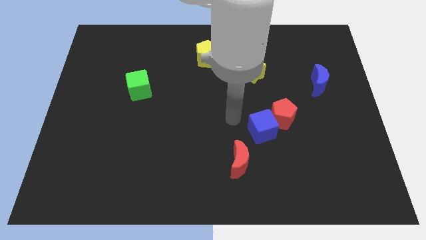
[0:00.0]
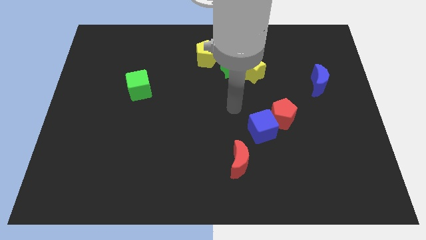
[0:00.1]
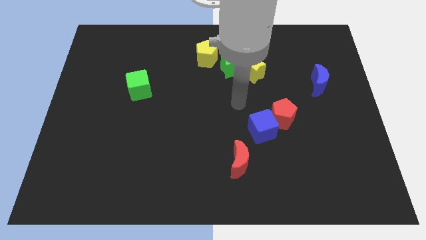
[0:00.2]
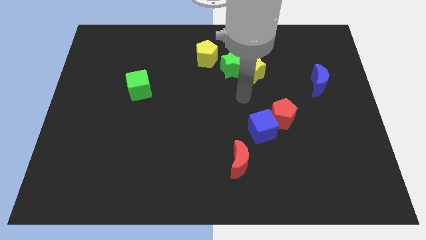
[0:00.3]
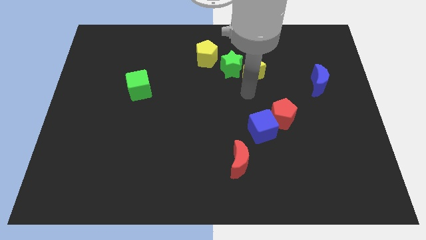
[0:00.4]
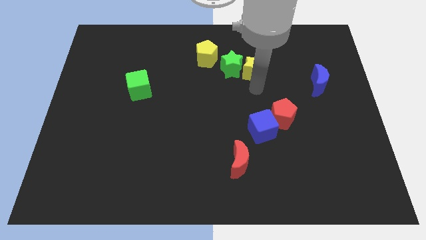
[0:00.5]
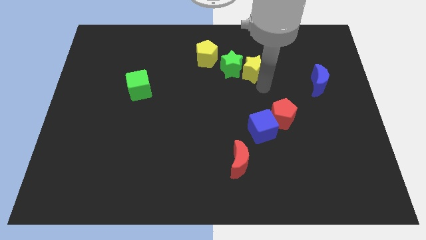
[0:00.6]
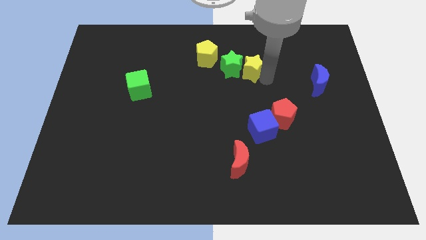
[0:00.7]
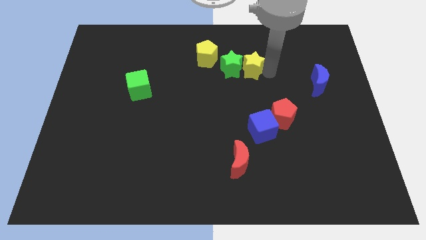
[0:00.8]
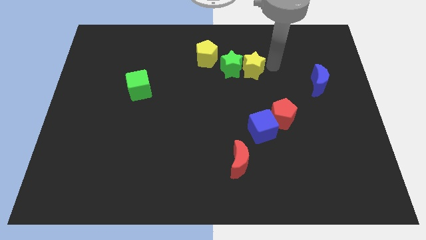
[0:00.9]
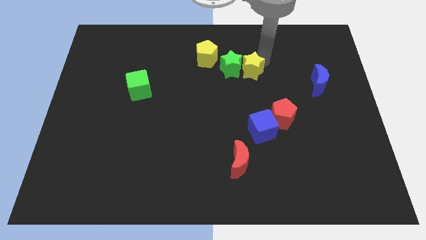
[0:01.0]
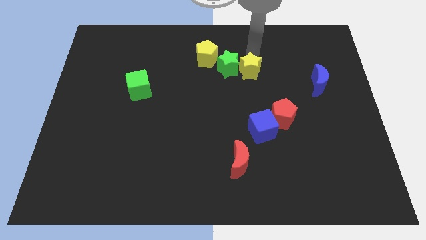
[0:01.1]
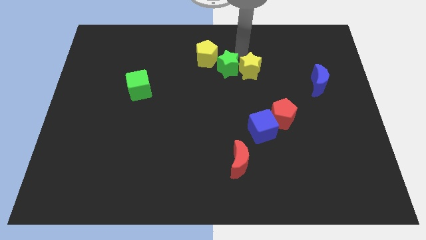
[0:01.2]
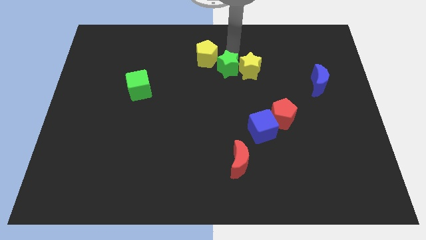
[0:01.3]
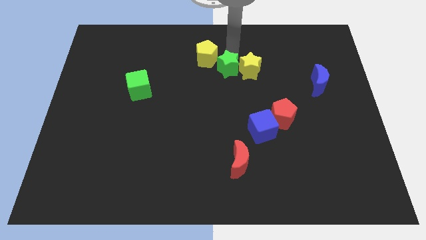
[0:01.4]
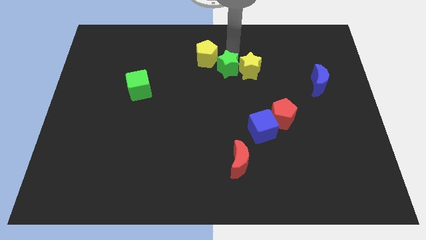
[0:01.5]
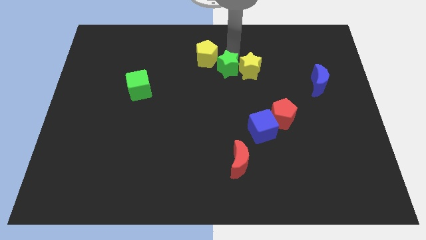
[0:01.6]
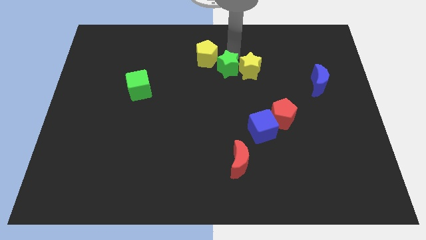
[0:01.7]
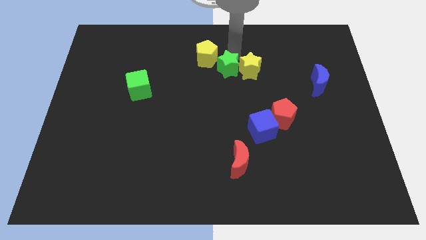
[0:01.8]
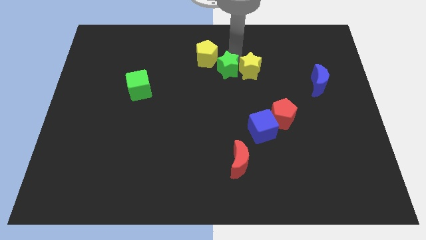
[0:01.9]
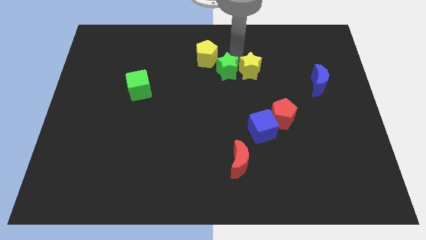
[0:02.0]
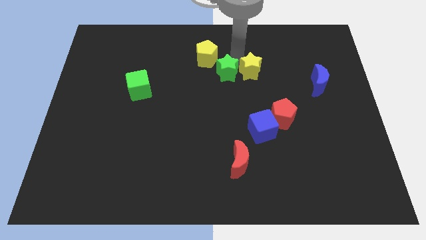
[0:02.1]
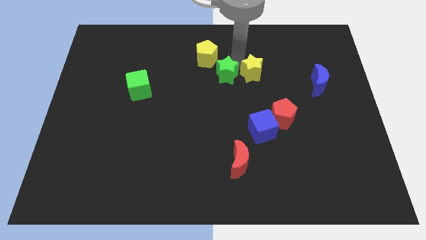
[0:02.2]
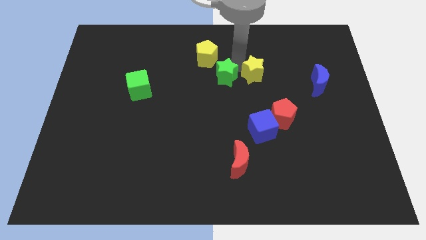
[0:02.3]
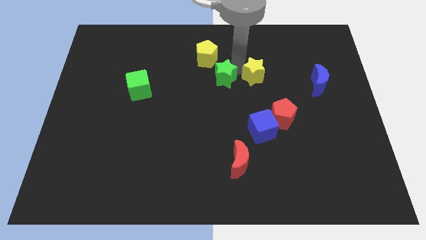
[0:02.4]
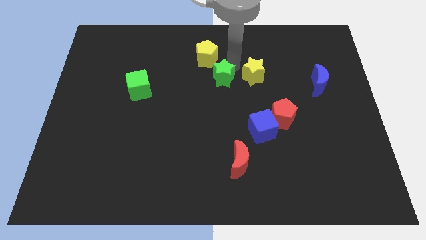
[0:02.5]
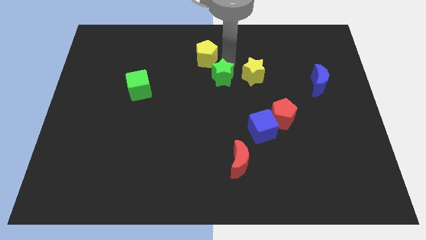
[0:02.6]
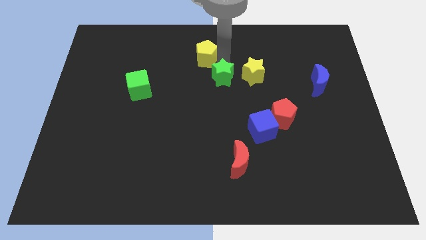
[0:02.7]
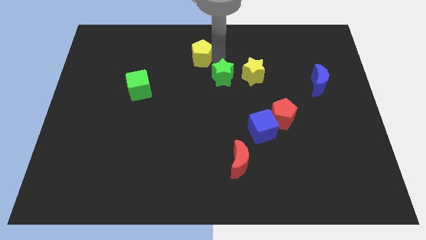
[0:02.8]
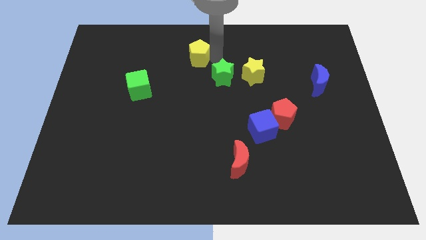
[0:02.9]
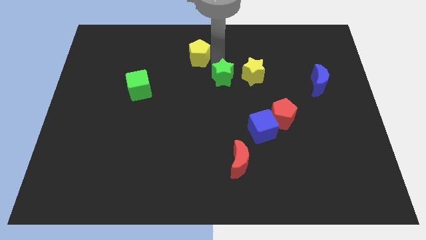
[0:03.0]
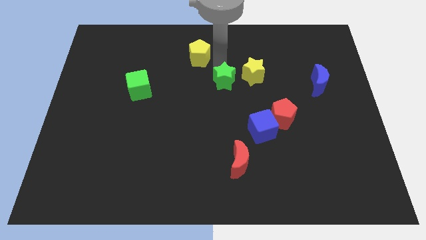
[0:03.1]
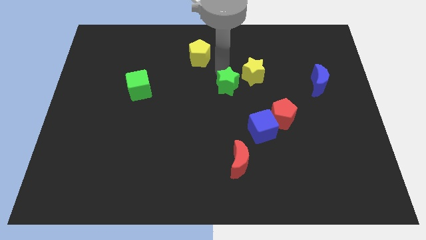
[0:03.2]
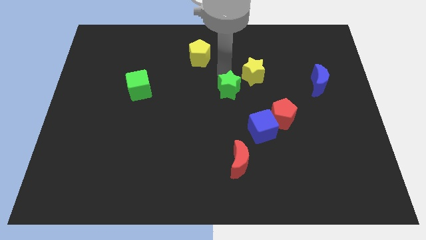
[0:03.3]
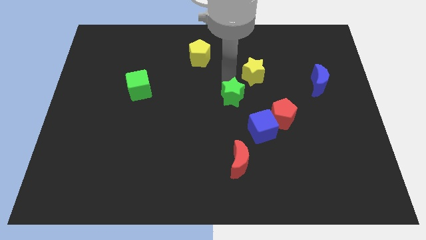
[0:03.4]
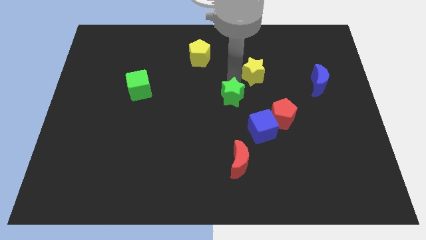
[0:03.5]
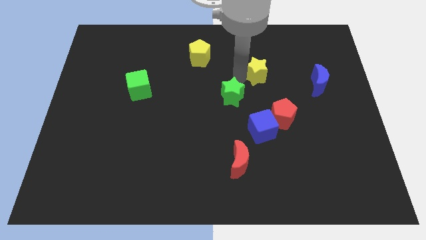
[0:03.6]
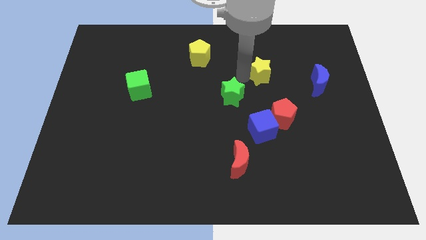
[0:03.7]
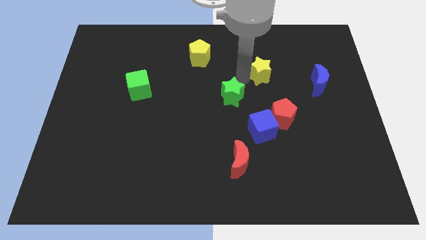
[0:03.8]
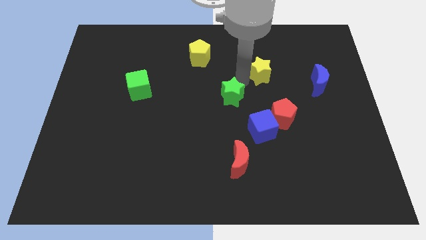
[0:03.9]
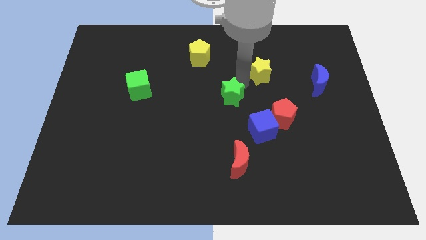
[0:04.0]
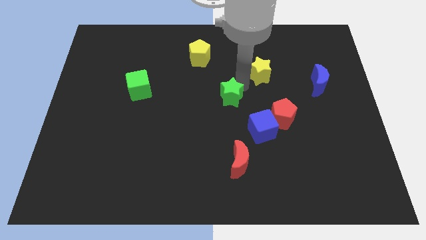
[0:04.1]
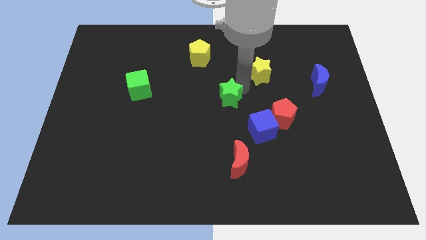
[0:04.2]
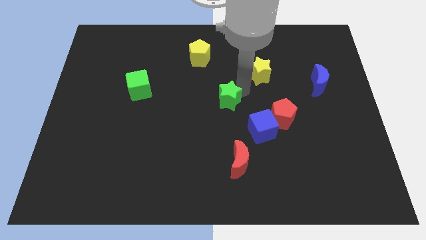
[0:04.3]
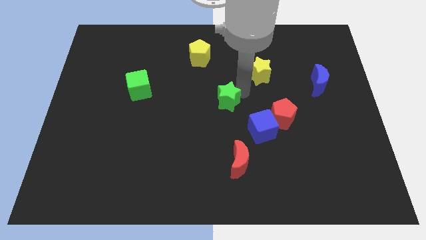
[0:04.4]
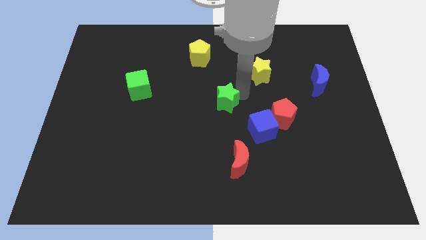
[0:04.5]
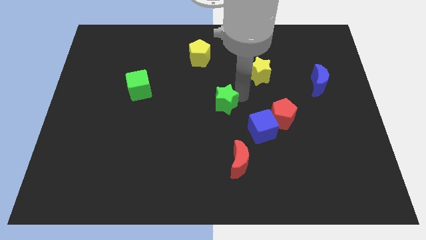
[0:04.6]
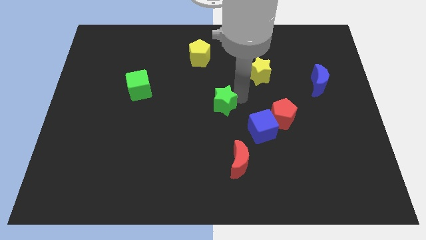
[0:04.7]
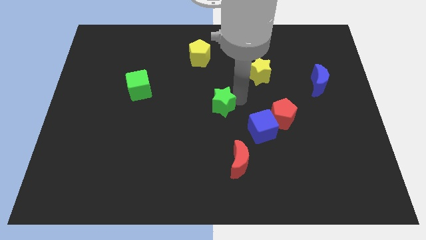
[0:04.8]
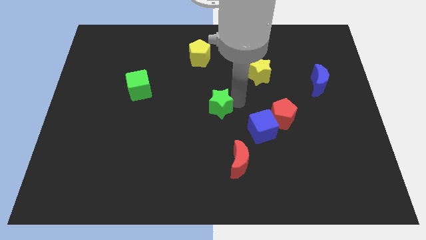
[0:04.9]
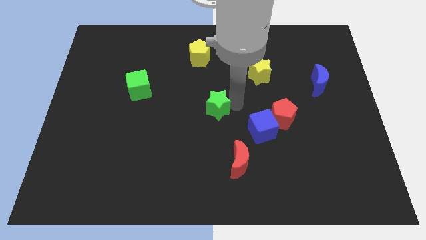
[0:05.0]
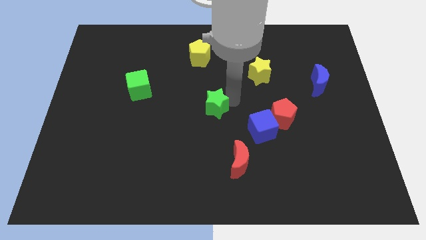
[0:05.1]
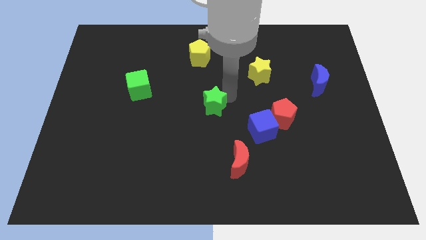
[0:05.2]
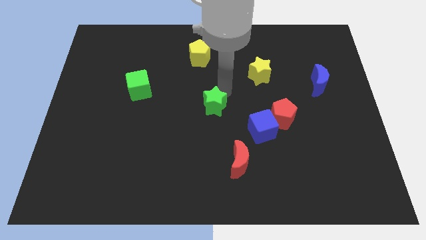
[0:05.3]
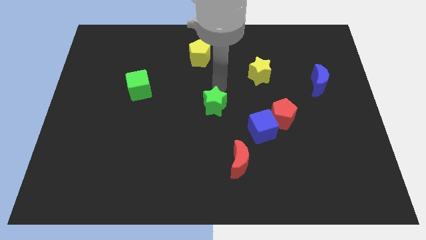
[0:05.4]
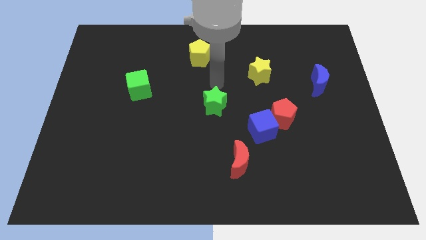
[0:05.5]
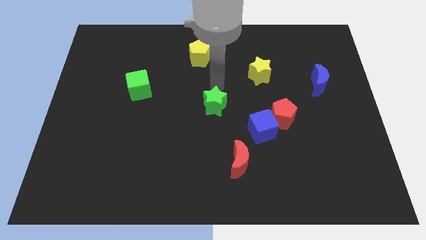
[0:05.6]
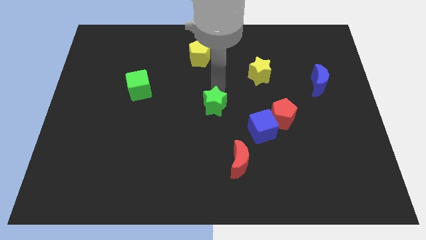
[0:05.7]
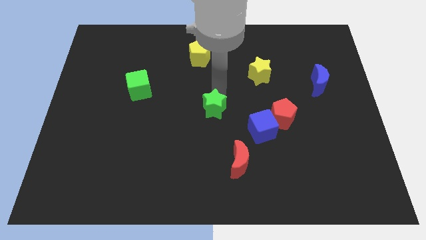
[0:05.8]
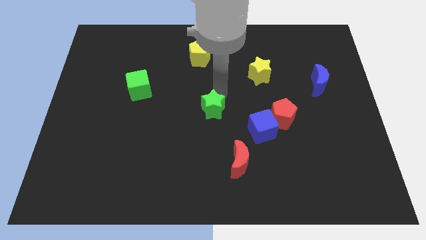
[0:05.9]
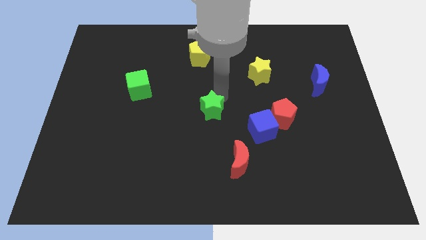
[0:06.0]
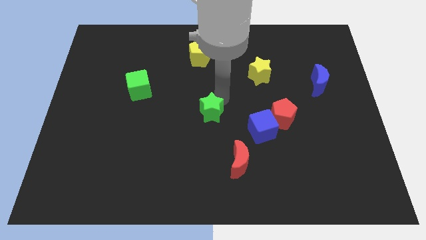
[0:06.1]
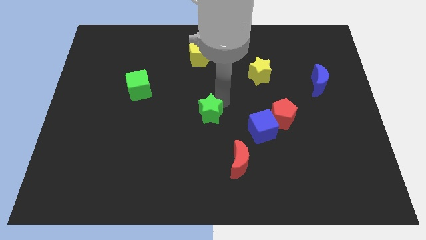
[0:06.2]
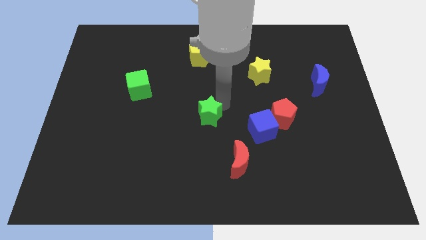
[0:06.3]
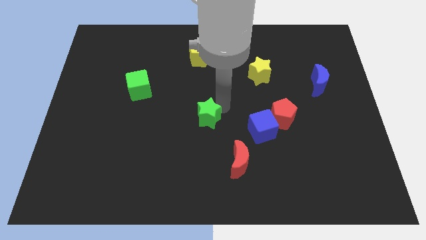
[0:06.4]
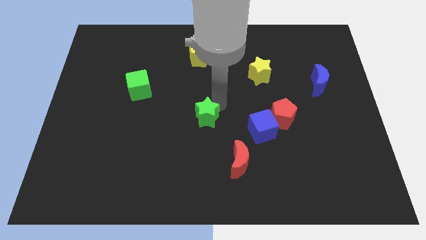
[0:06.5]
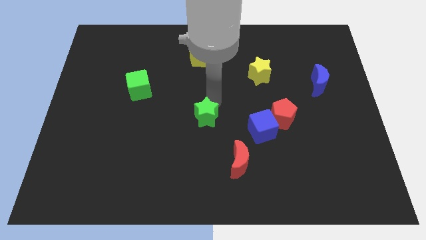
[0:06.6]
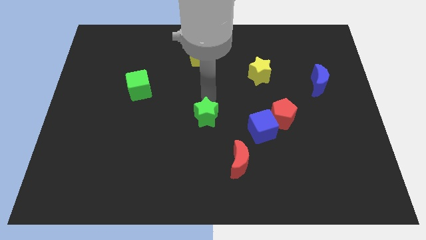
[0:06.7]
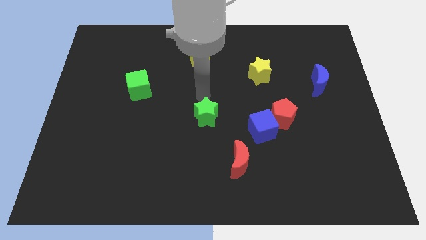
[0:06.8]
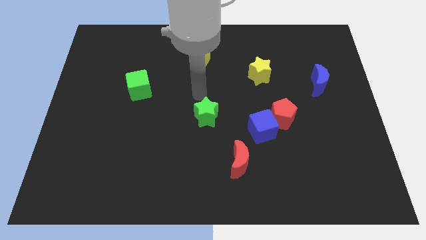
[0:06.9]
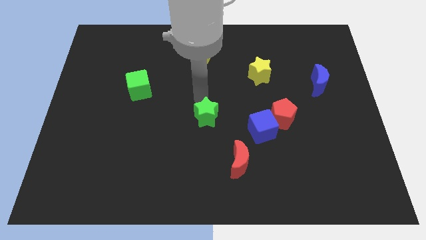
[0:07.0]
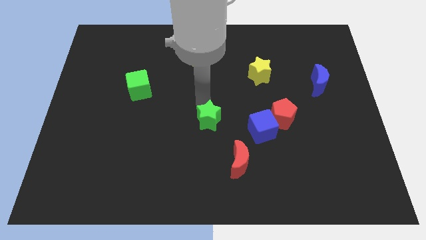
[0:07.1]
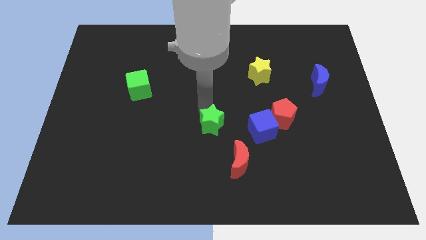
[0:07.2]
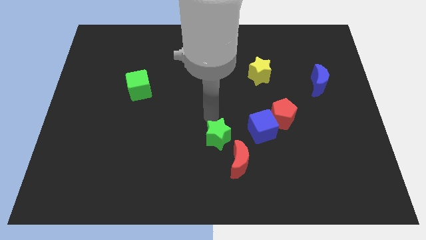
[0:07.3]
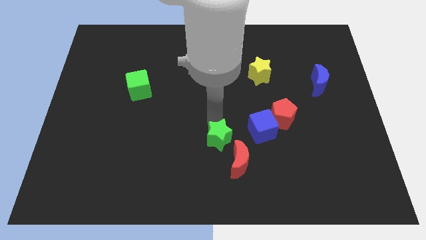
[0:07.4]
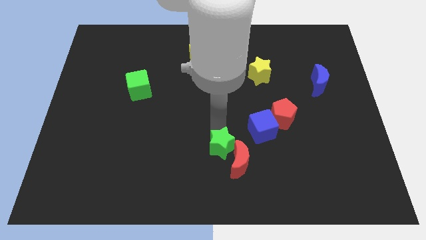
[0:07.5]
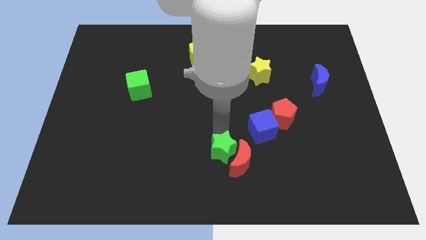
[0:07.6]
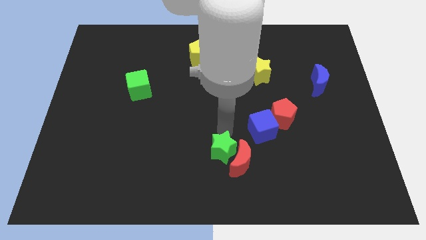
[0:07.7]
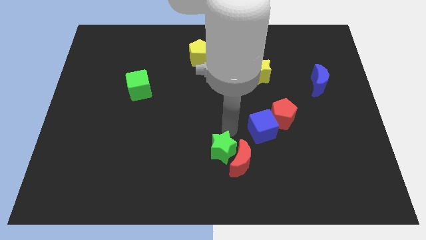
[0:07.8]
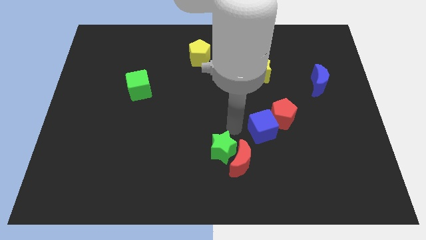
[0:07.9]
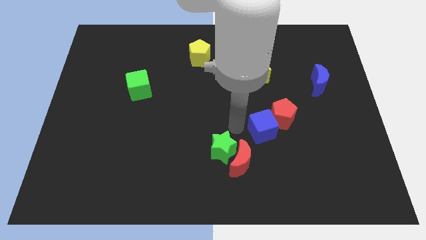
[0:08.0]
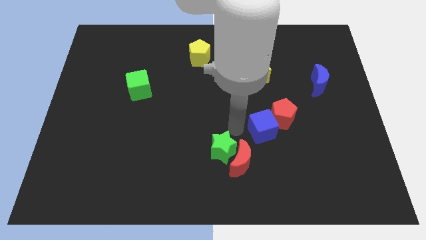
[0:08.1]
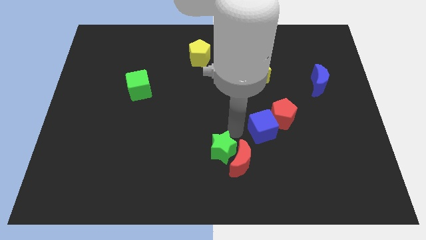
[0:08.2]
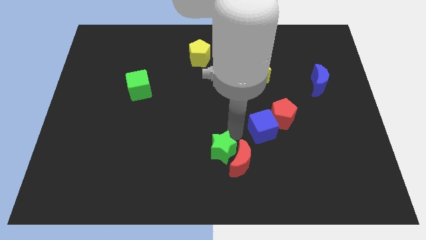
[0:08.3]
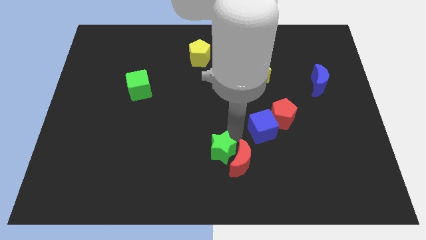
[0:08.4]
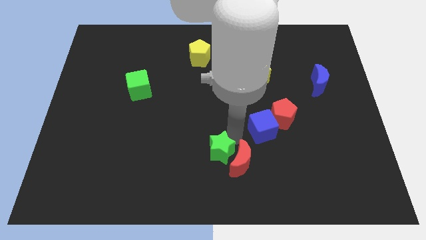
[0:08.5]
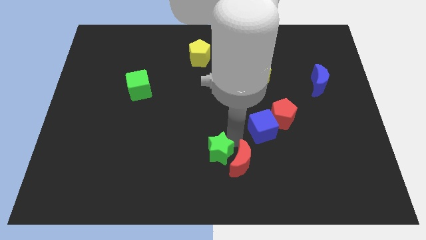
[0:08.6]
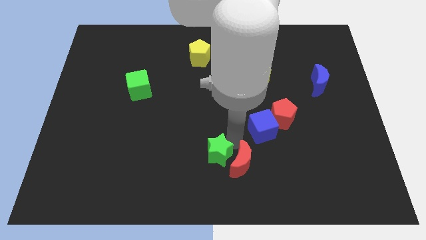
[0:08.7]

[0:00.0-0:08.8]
move the green star to the bottom side
